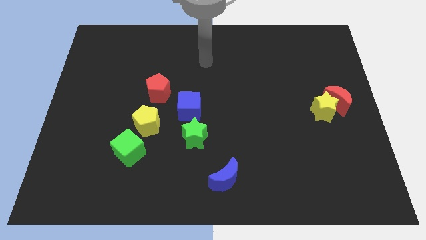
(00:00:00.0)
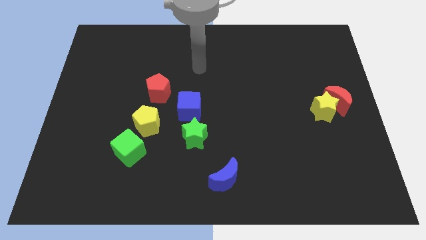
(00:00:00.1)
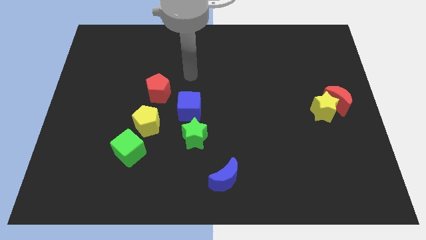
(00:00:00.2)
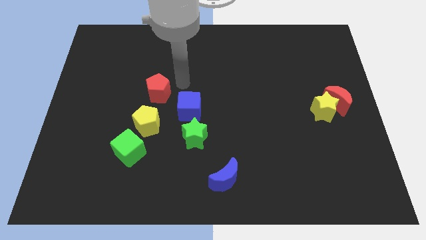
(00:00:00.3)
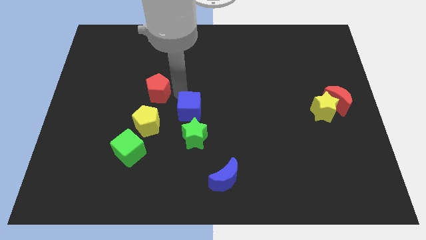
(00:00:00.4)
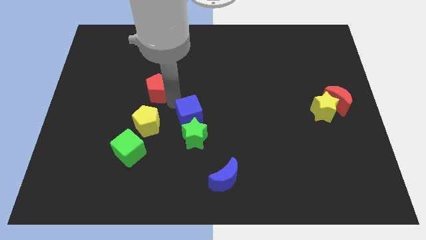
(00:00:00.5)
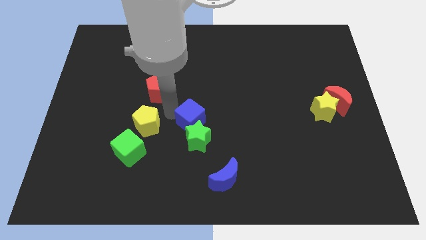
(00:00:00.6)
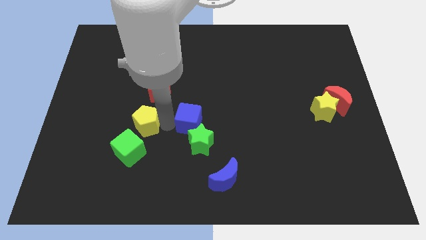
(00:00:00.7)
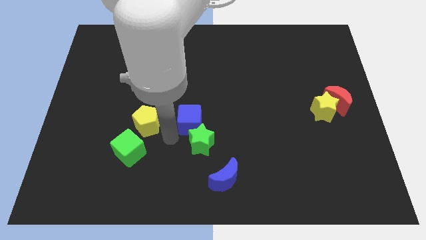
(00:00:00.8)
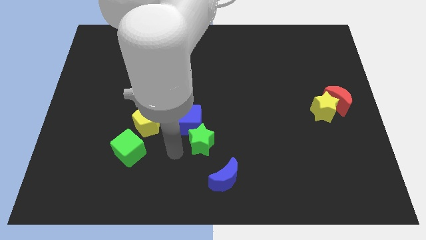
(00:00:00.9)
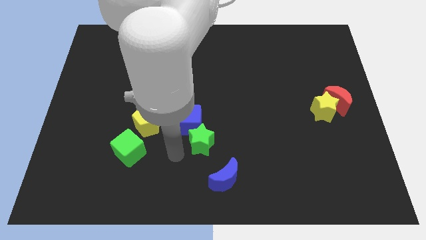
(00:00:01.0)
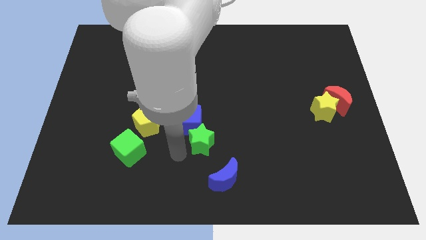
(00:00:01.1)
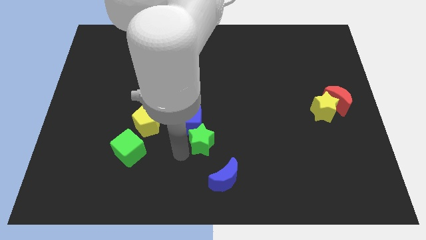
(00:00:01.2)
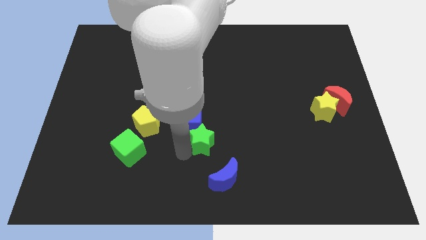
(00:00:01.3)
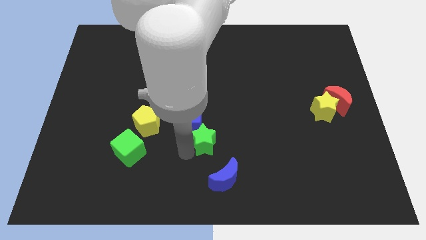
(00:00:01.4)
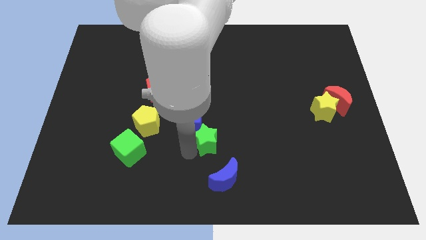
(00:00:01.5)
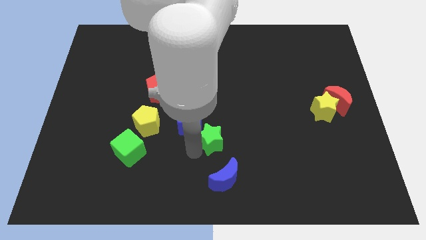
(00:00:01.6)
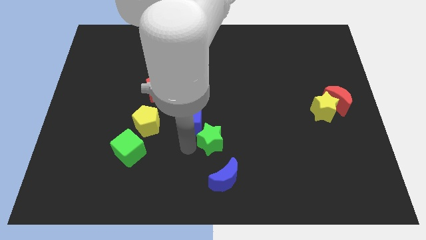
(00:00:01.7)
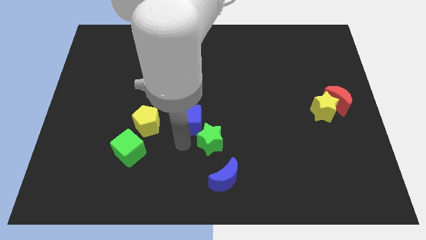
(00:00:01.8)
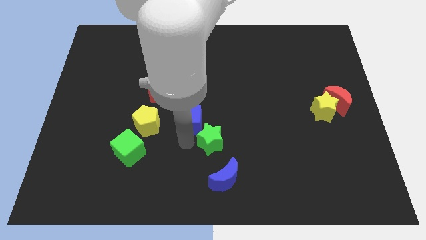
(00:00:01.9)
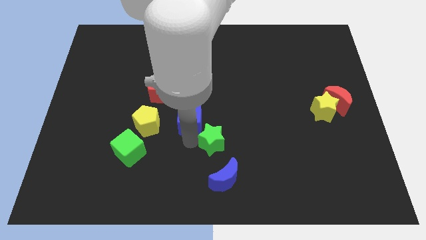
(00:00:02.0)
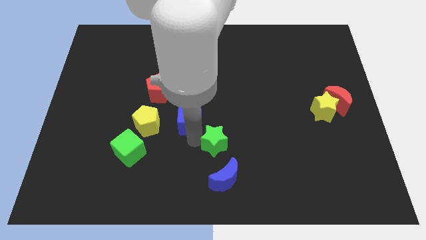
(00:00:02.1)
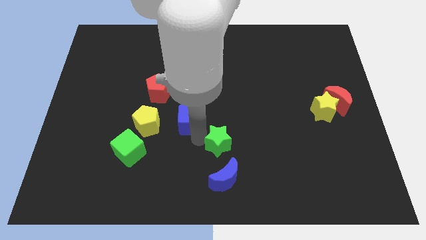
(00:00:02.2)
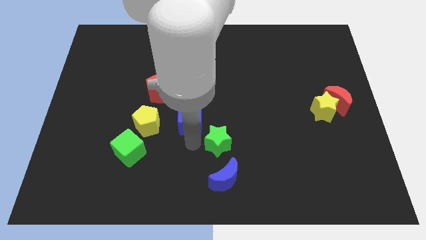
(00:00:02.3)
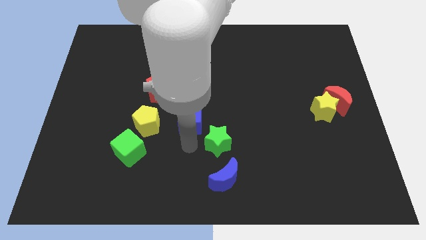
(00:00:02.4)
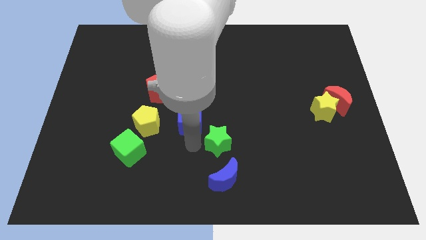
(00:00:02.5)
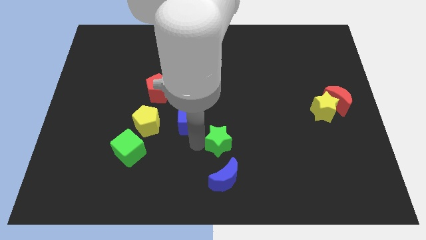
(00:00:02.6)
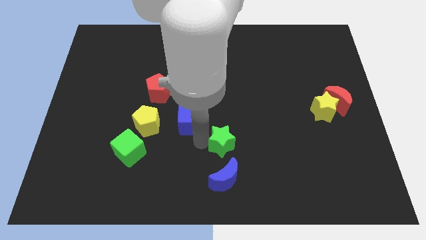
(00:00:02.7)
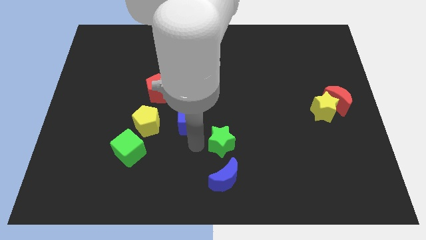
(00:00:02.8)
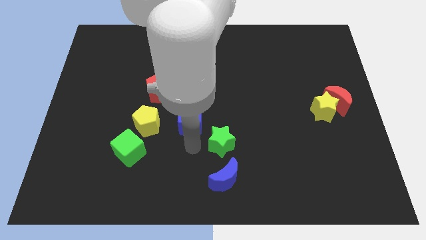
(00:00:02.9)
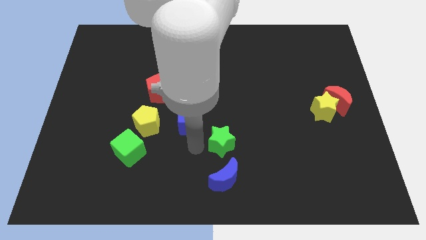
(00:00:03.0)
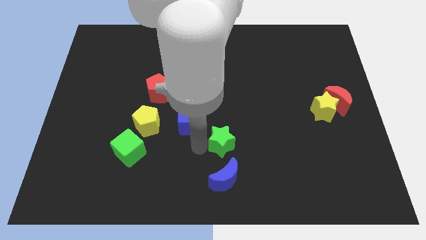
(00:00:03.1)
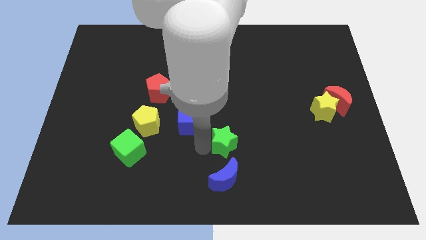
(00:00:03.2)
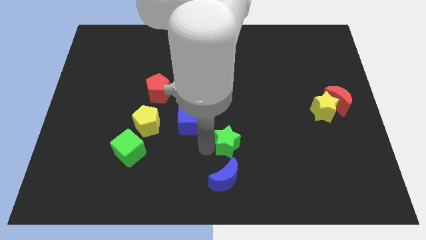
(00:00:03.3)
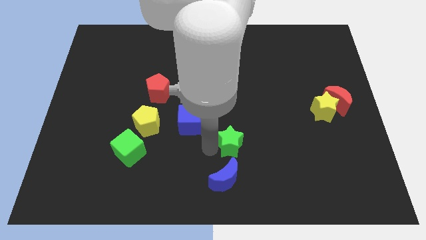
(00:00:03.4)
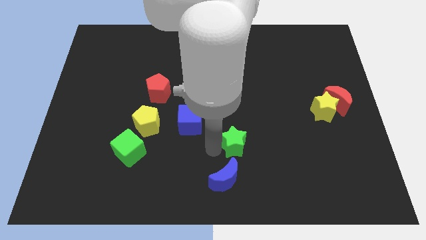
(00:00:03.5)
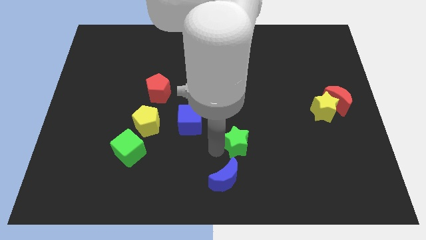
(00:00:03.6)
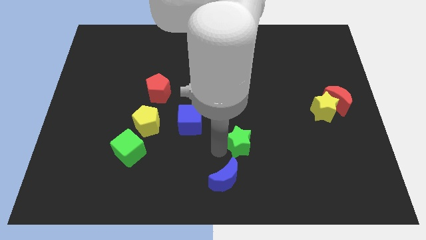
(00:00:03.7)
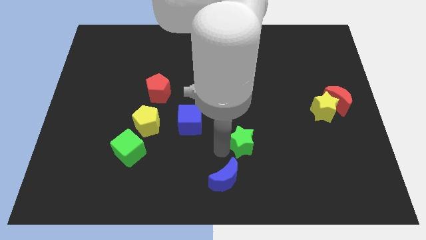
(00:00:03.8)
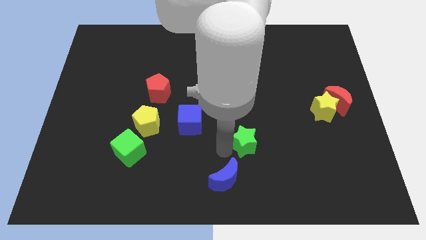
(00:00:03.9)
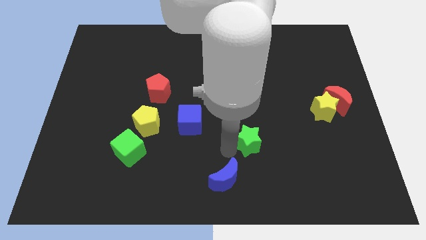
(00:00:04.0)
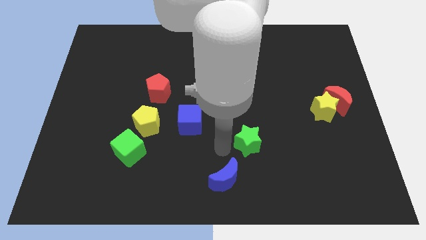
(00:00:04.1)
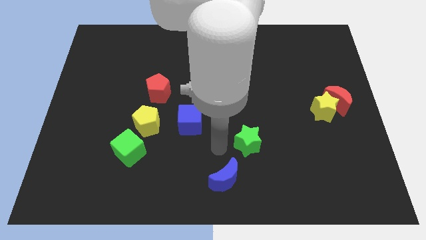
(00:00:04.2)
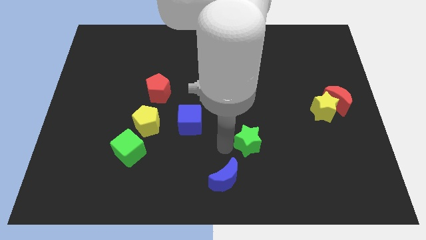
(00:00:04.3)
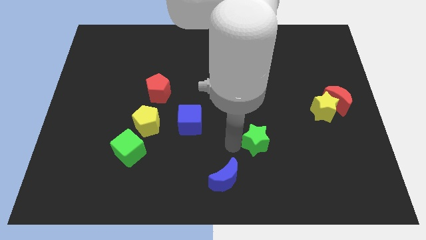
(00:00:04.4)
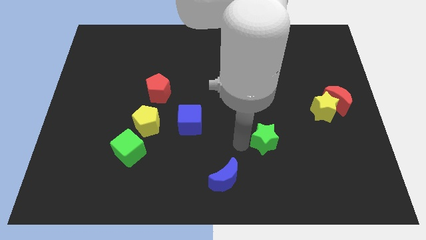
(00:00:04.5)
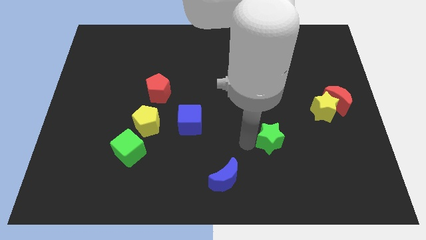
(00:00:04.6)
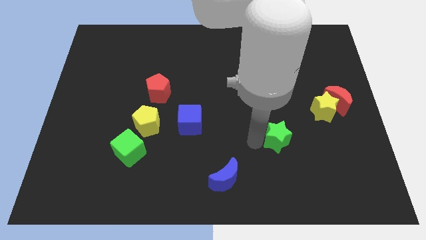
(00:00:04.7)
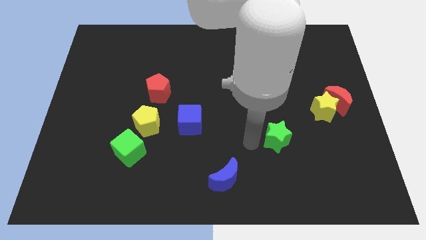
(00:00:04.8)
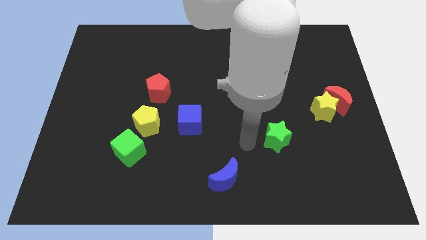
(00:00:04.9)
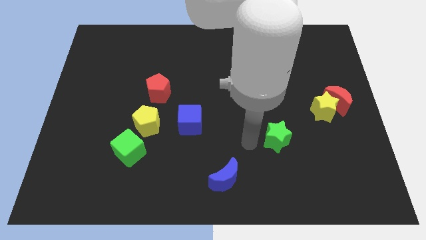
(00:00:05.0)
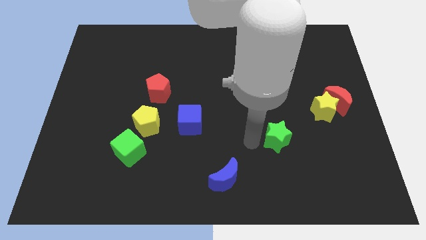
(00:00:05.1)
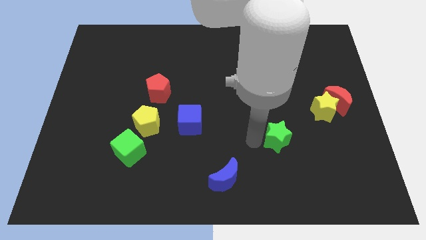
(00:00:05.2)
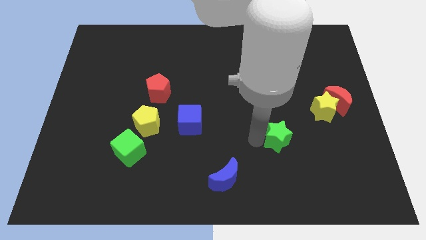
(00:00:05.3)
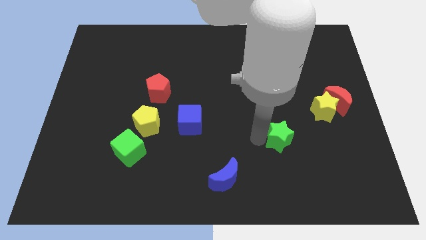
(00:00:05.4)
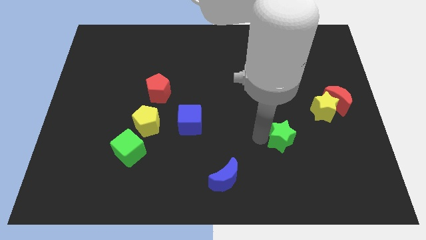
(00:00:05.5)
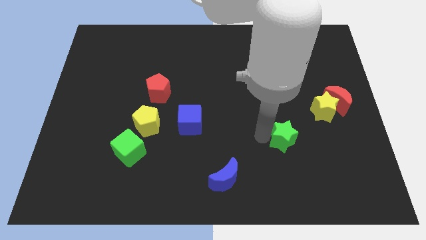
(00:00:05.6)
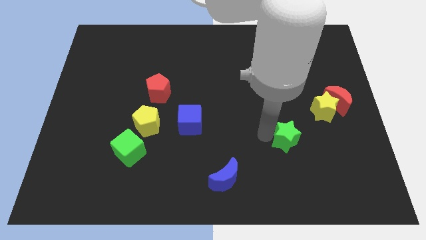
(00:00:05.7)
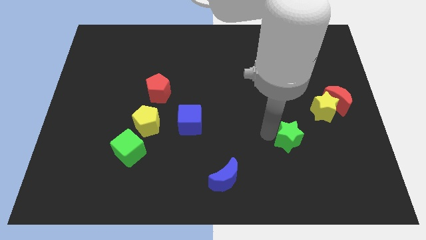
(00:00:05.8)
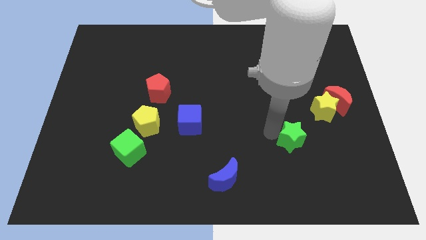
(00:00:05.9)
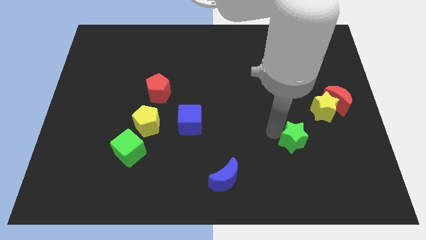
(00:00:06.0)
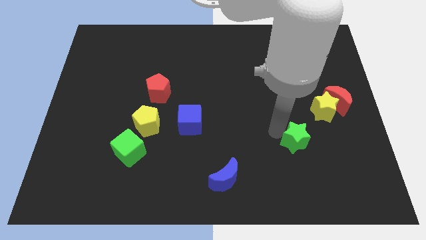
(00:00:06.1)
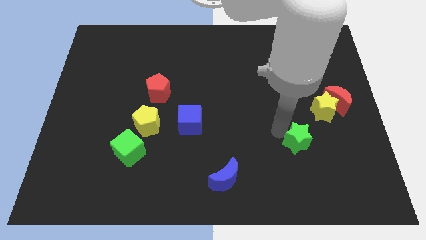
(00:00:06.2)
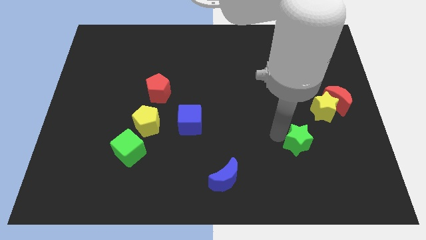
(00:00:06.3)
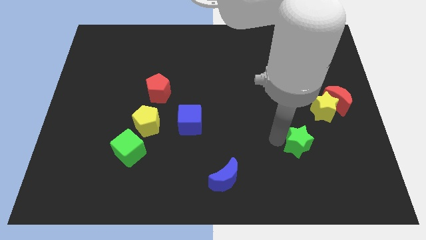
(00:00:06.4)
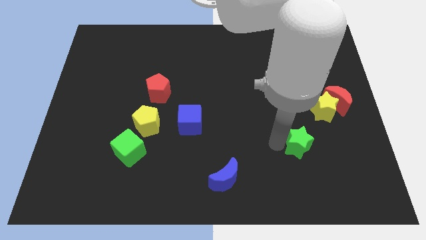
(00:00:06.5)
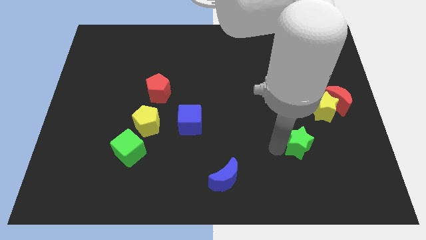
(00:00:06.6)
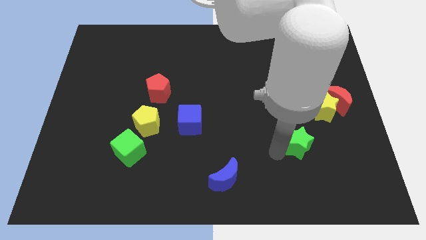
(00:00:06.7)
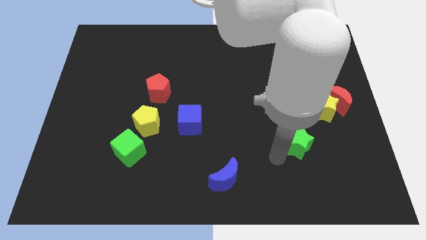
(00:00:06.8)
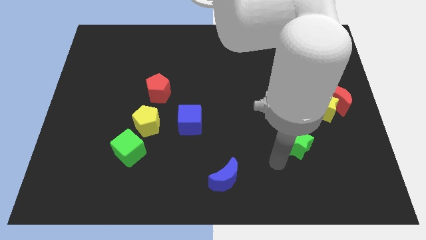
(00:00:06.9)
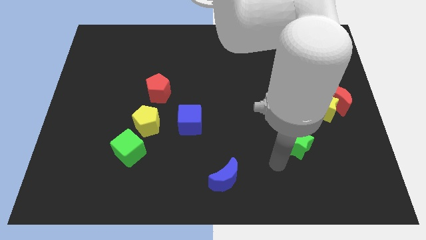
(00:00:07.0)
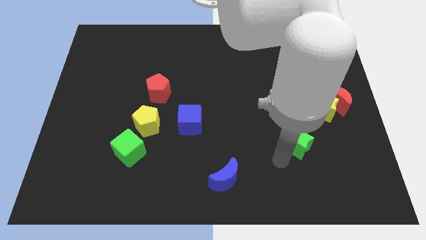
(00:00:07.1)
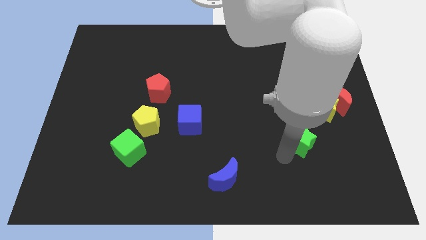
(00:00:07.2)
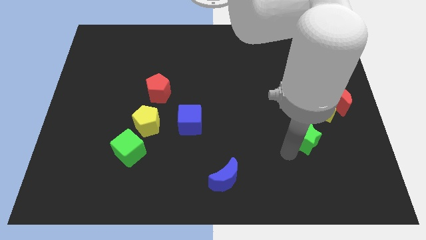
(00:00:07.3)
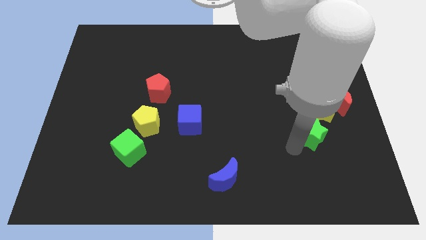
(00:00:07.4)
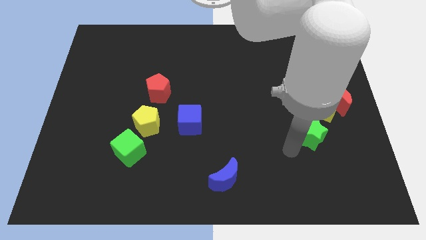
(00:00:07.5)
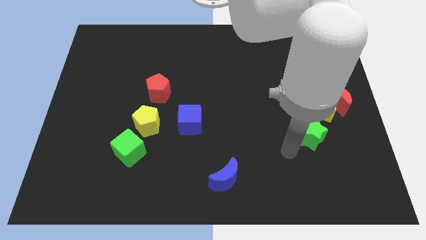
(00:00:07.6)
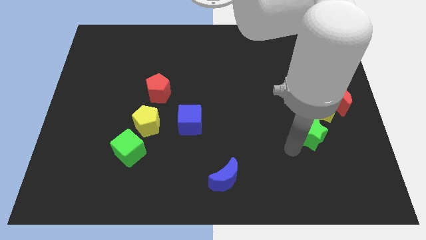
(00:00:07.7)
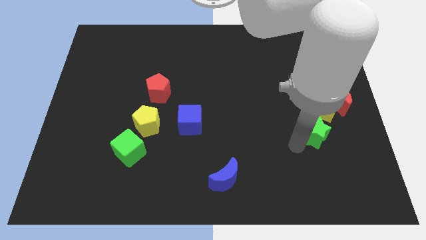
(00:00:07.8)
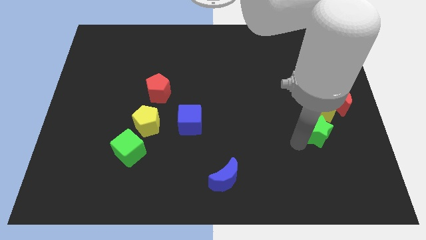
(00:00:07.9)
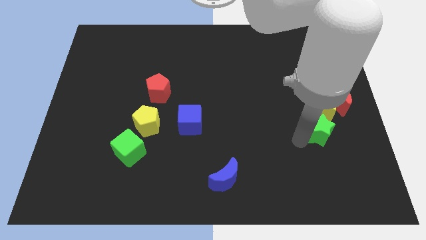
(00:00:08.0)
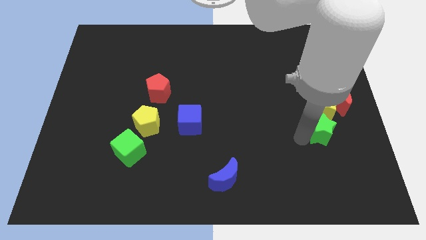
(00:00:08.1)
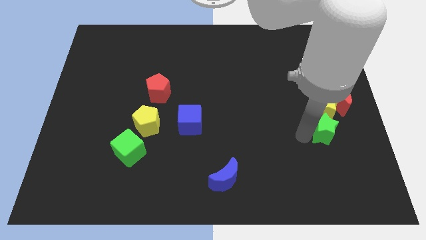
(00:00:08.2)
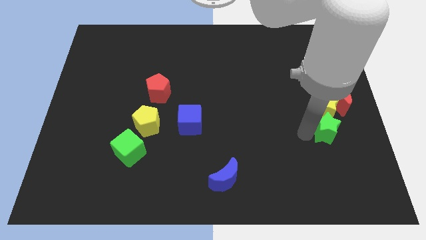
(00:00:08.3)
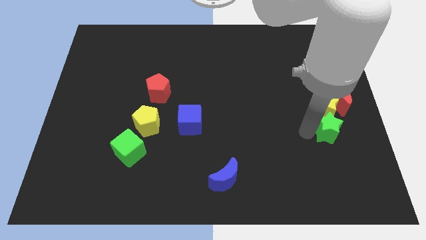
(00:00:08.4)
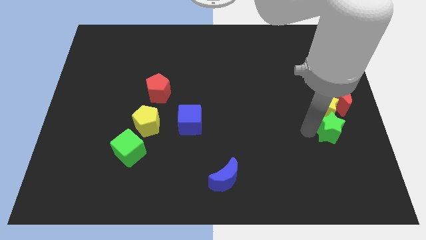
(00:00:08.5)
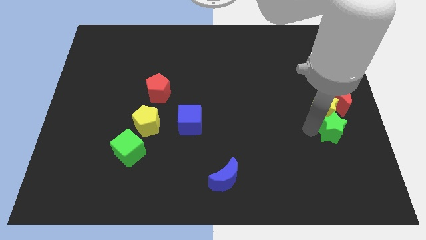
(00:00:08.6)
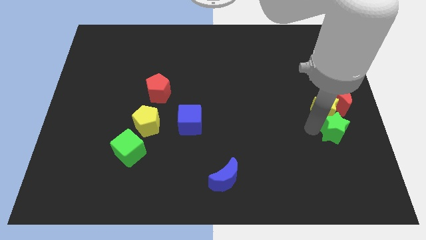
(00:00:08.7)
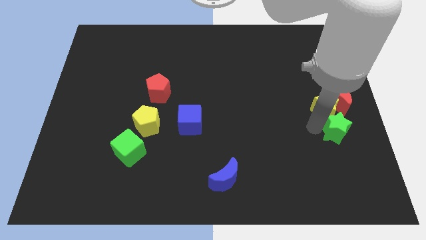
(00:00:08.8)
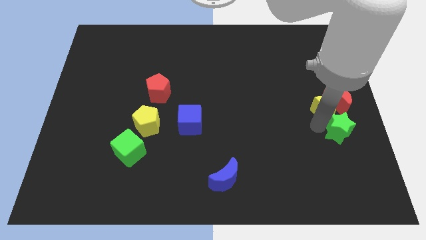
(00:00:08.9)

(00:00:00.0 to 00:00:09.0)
slide the green star to the right side
